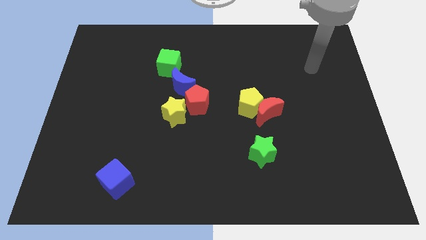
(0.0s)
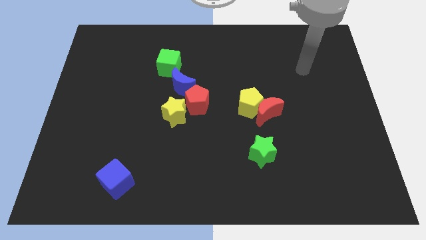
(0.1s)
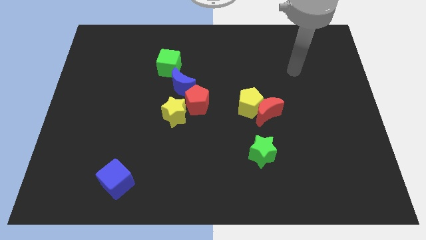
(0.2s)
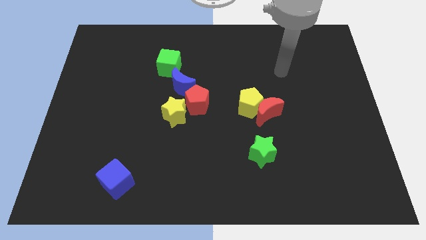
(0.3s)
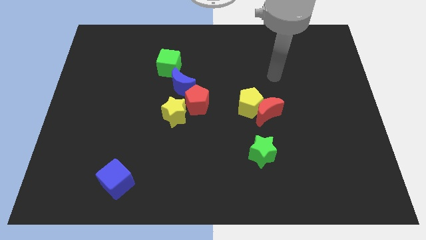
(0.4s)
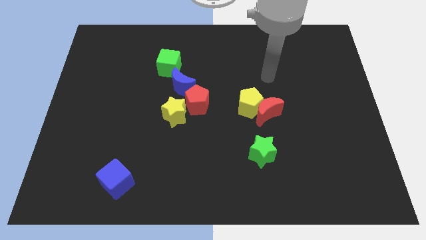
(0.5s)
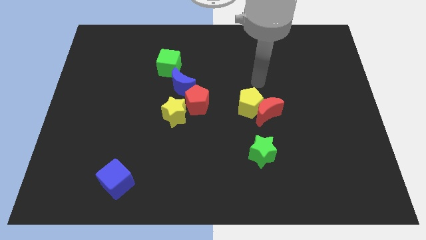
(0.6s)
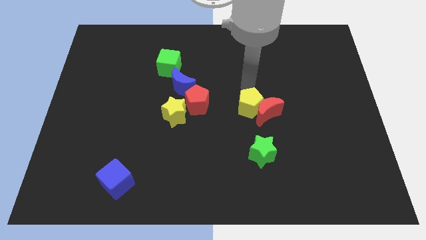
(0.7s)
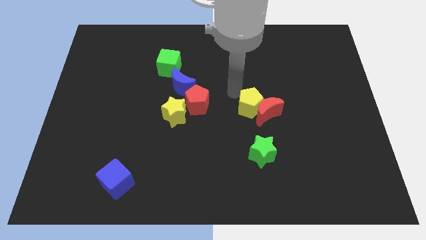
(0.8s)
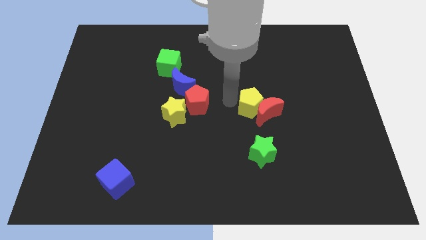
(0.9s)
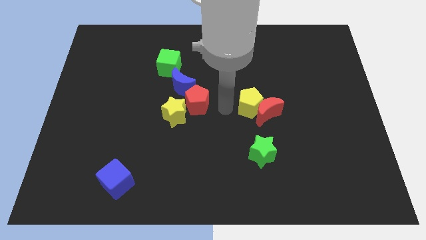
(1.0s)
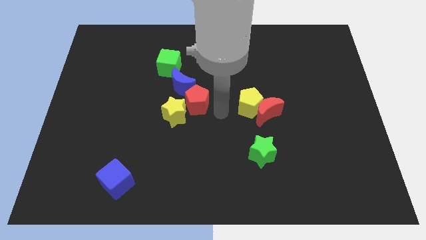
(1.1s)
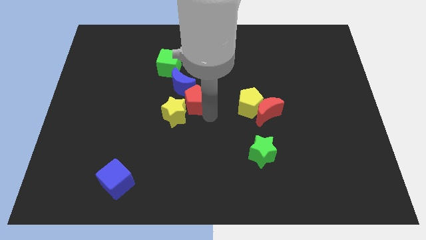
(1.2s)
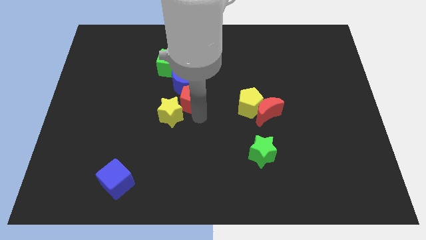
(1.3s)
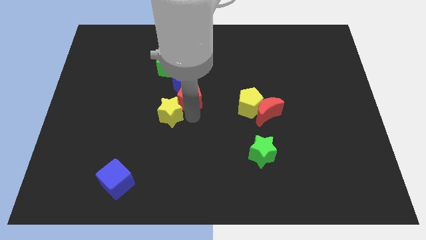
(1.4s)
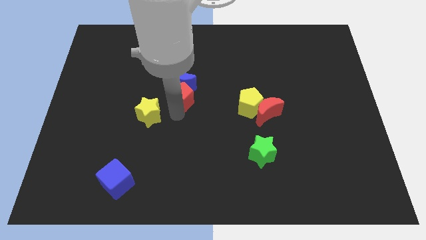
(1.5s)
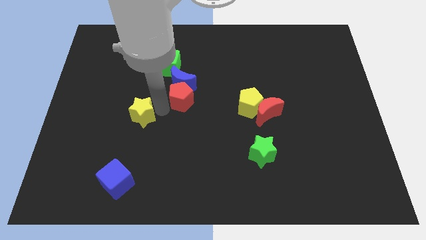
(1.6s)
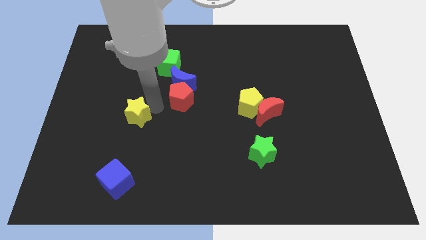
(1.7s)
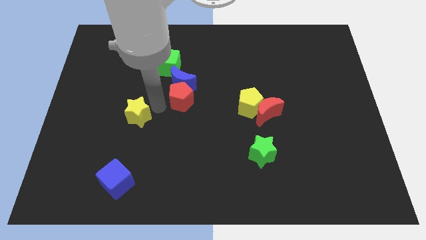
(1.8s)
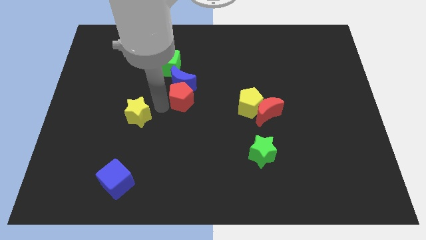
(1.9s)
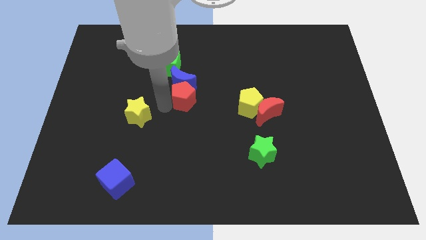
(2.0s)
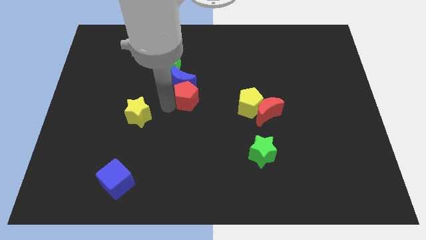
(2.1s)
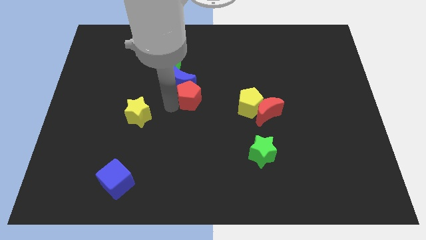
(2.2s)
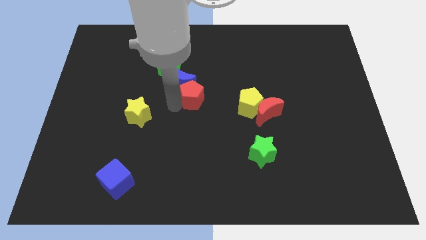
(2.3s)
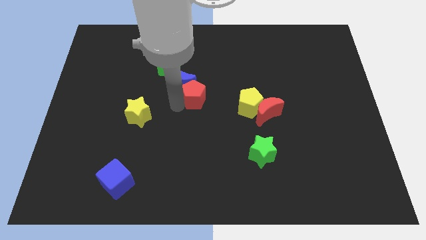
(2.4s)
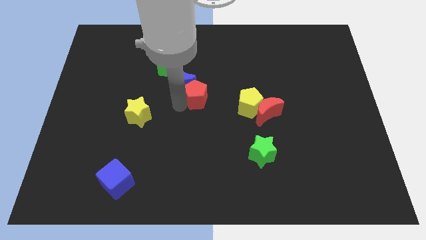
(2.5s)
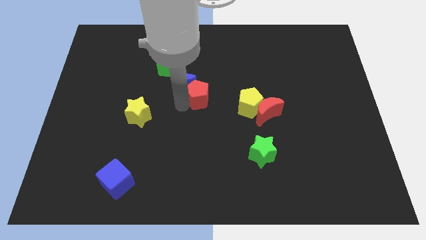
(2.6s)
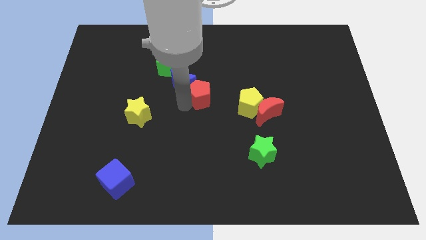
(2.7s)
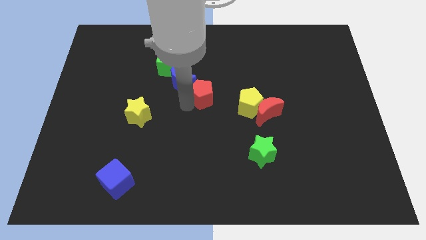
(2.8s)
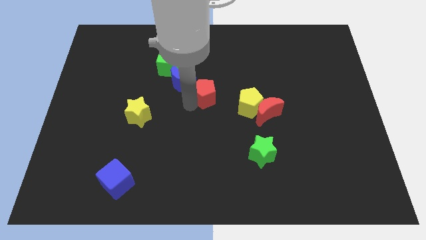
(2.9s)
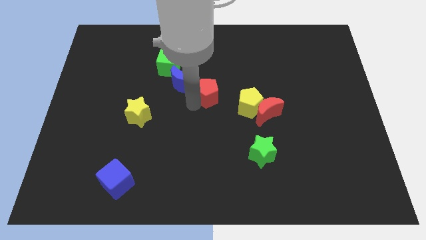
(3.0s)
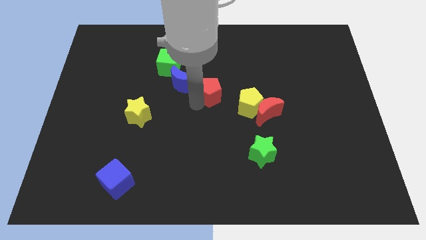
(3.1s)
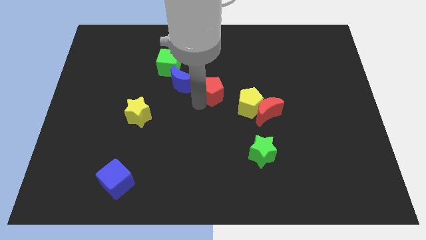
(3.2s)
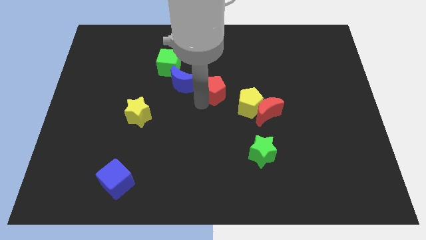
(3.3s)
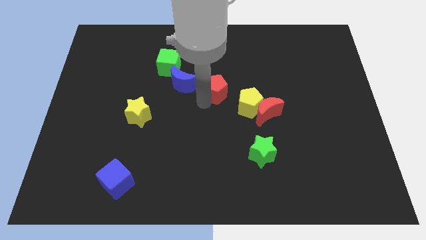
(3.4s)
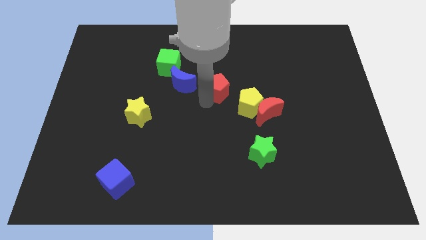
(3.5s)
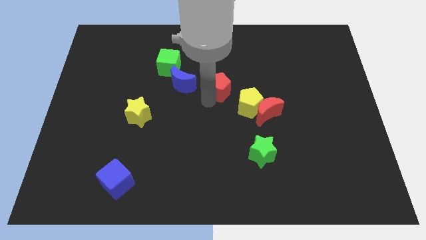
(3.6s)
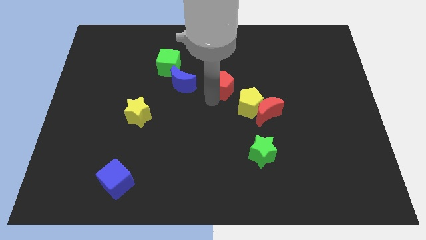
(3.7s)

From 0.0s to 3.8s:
slightly move the red pentagon upwards and to the right

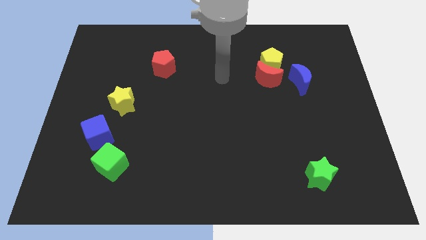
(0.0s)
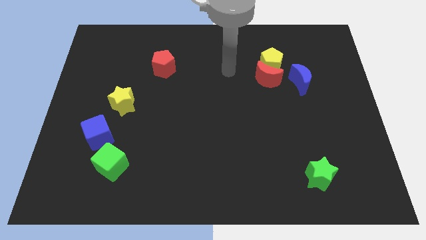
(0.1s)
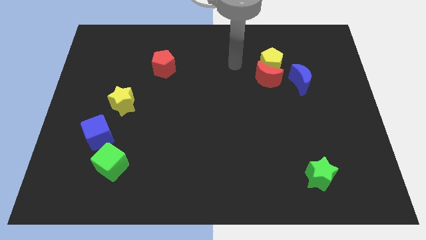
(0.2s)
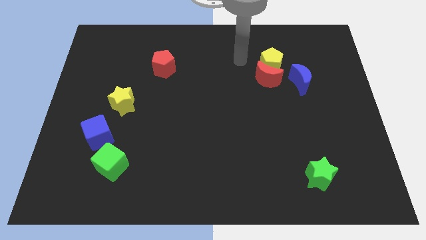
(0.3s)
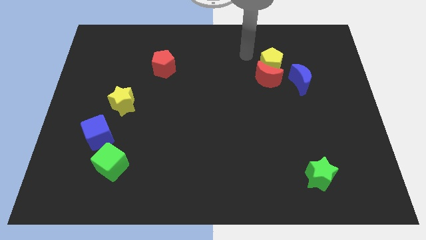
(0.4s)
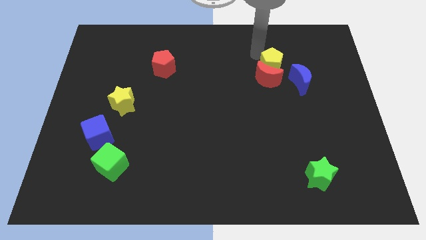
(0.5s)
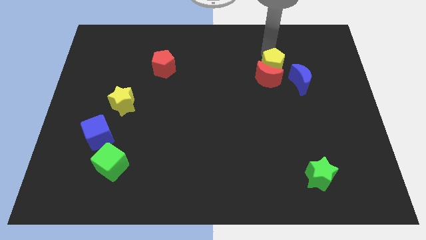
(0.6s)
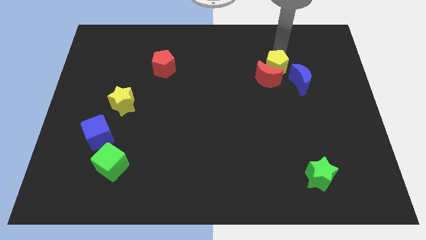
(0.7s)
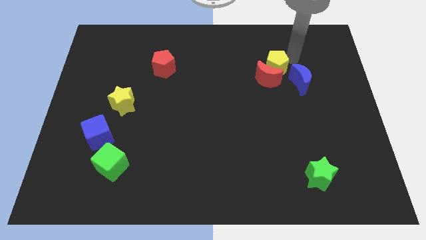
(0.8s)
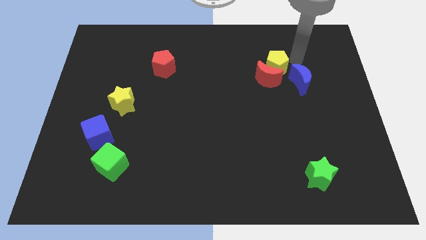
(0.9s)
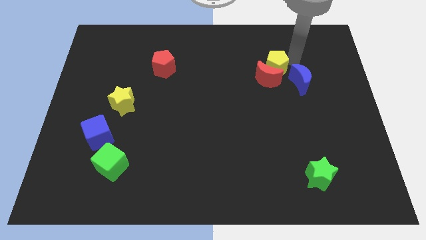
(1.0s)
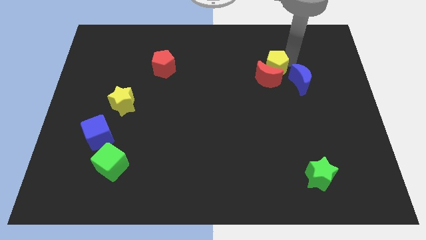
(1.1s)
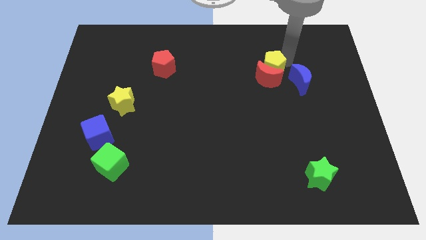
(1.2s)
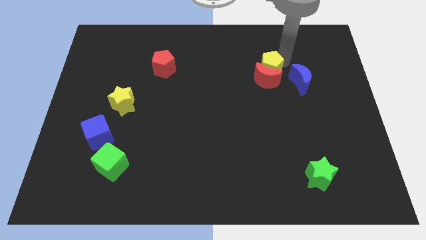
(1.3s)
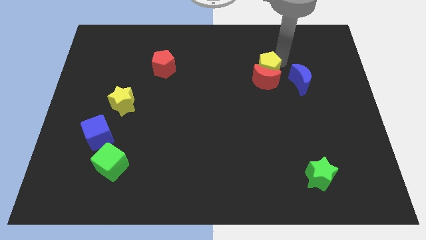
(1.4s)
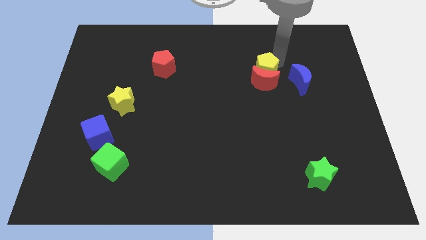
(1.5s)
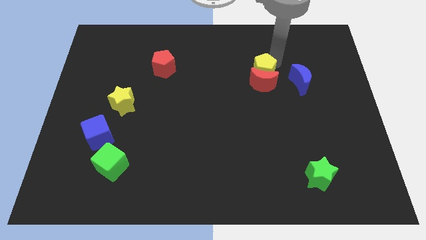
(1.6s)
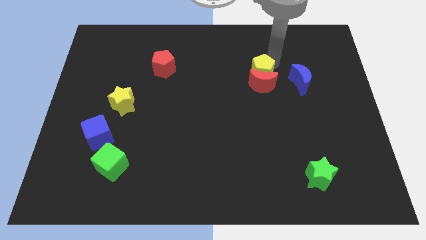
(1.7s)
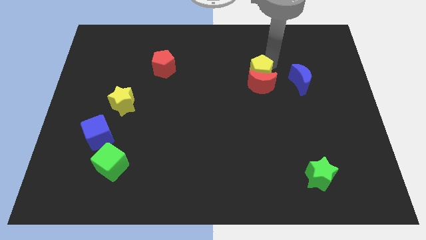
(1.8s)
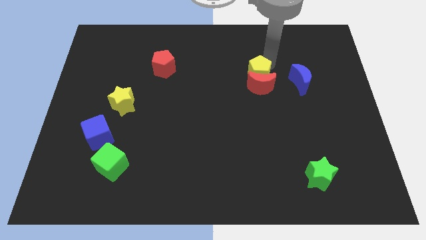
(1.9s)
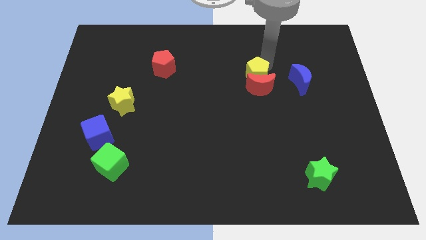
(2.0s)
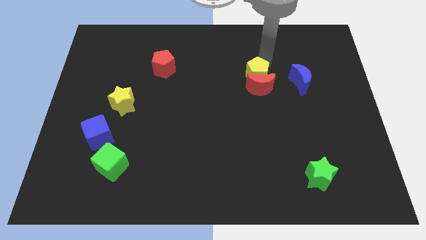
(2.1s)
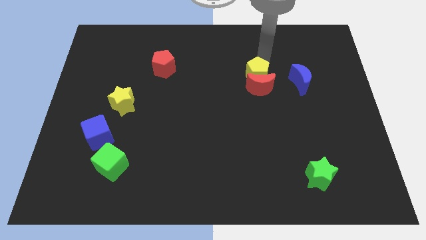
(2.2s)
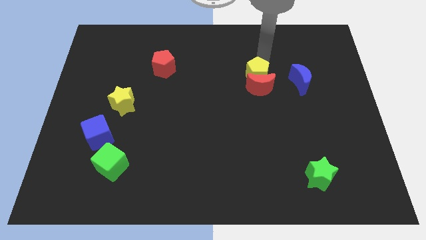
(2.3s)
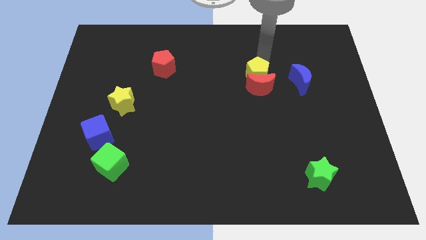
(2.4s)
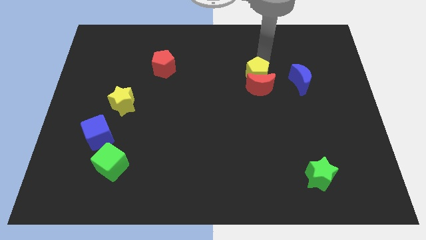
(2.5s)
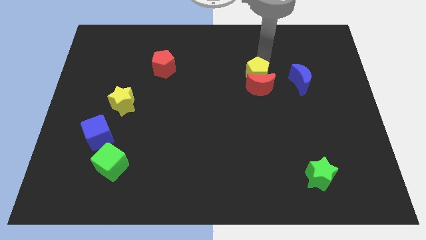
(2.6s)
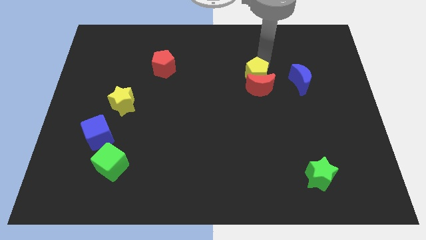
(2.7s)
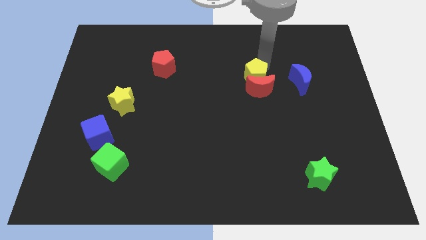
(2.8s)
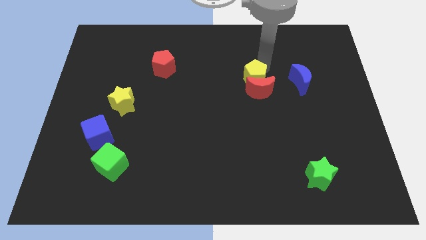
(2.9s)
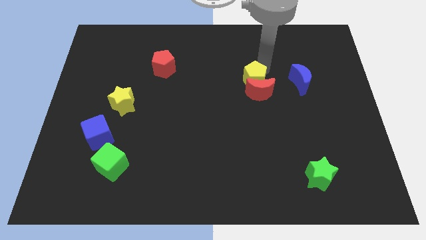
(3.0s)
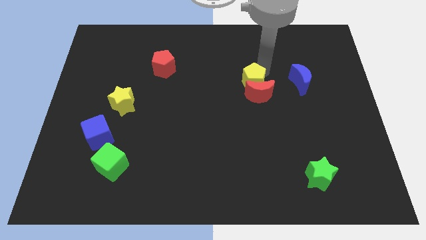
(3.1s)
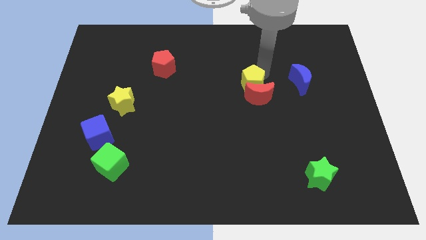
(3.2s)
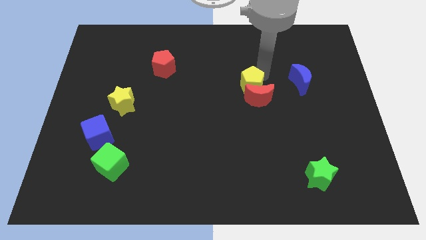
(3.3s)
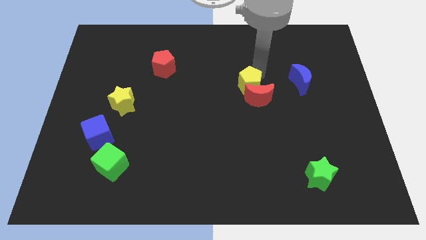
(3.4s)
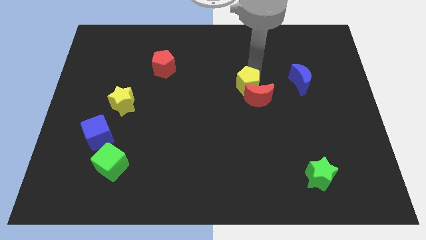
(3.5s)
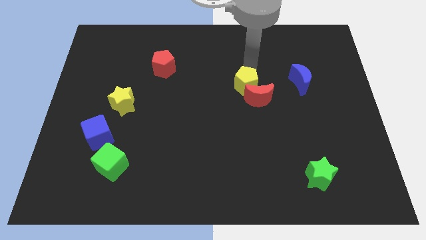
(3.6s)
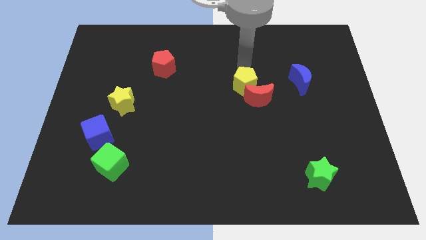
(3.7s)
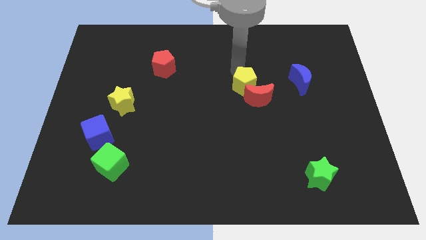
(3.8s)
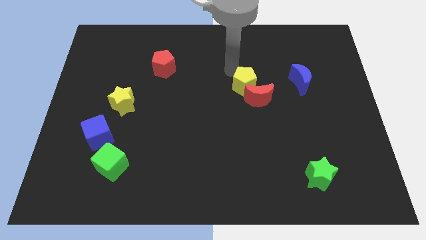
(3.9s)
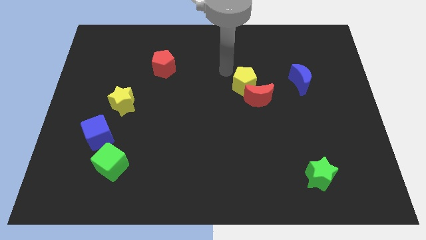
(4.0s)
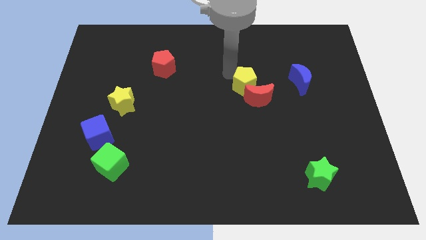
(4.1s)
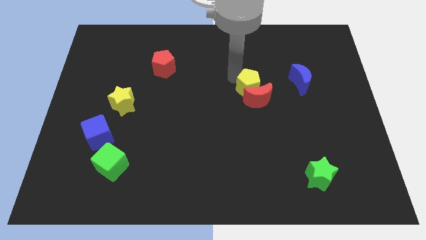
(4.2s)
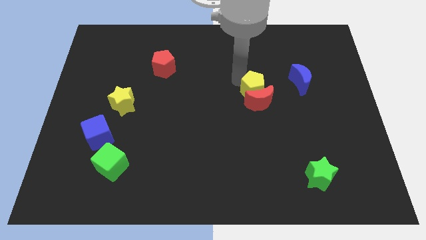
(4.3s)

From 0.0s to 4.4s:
push the yellow pentagon a little bit down
